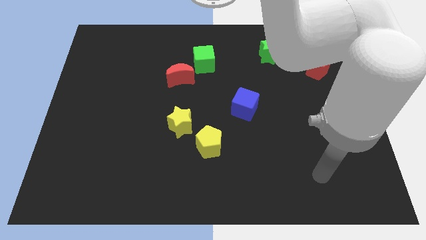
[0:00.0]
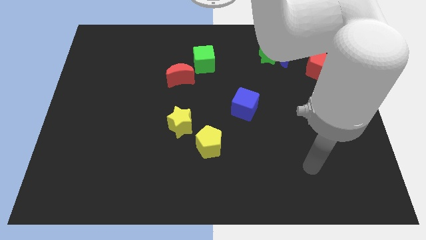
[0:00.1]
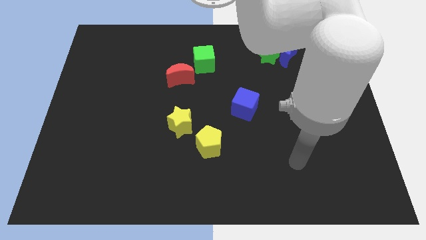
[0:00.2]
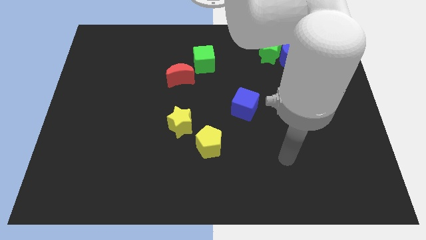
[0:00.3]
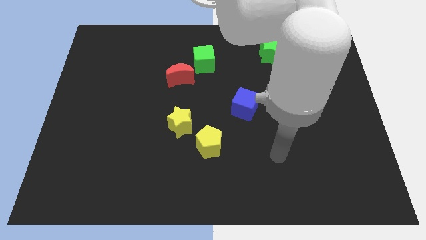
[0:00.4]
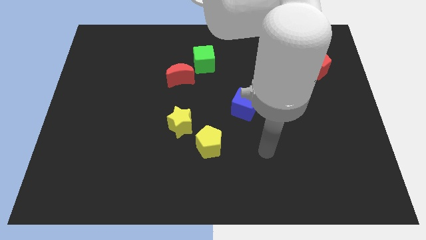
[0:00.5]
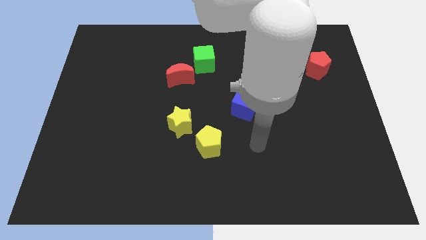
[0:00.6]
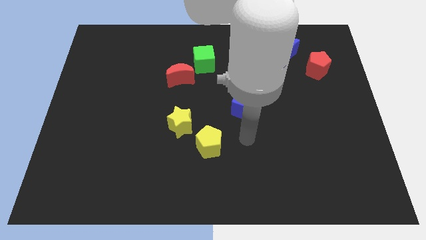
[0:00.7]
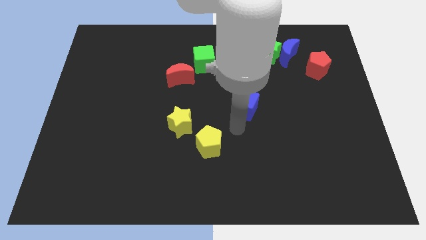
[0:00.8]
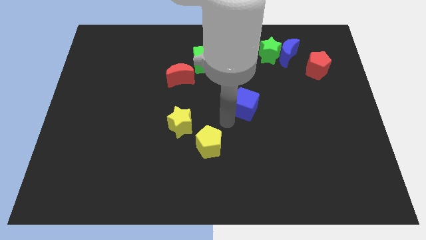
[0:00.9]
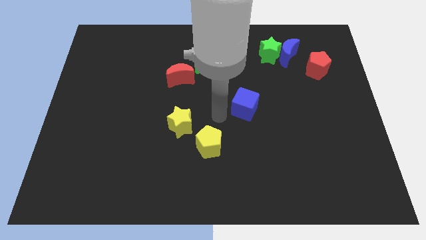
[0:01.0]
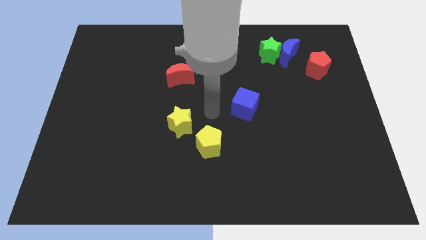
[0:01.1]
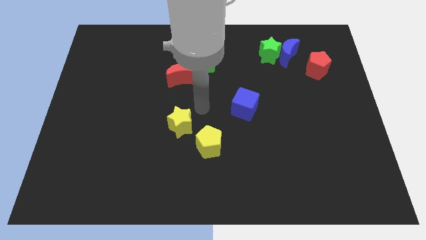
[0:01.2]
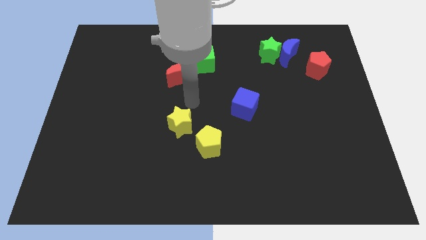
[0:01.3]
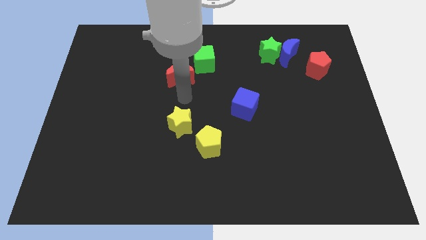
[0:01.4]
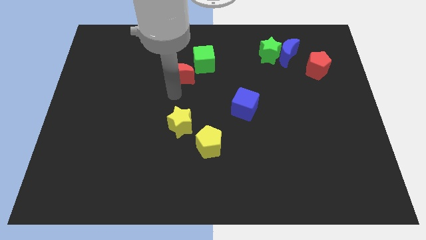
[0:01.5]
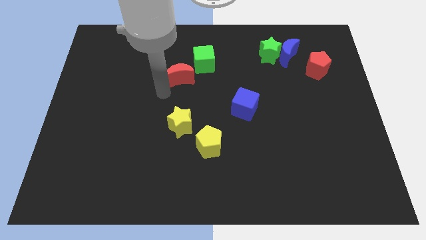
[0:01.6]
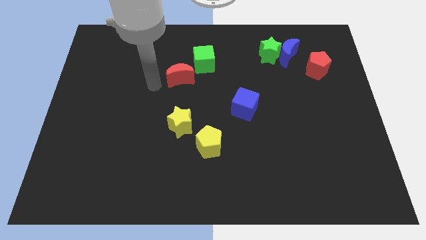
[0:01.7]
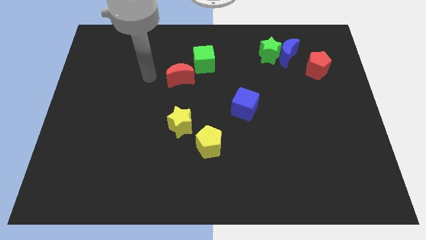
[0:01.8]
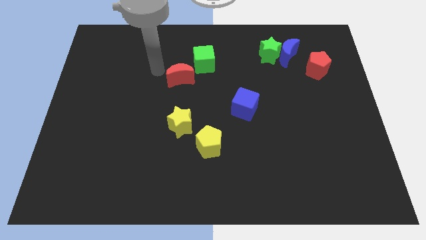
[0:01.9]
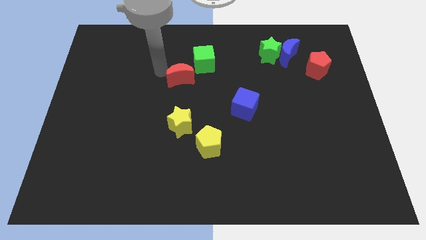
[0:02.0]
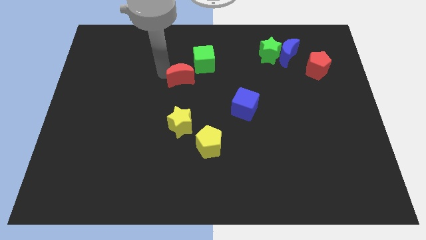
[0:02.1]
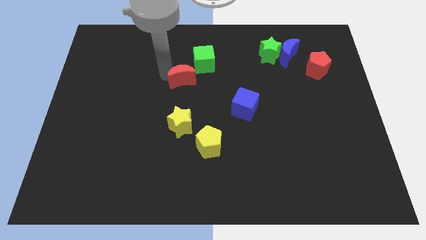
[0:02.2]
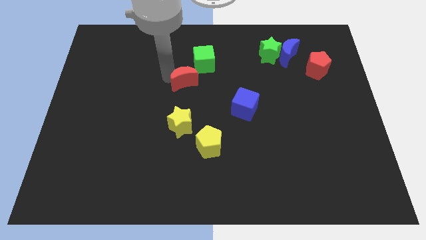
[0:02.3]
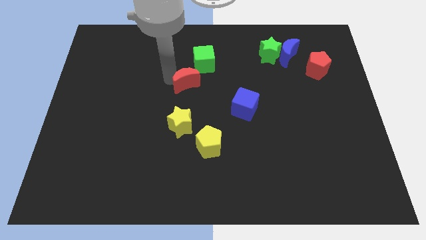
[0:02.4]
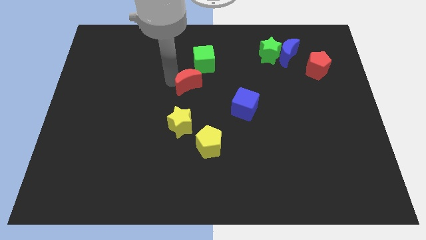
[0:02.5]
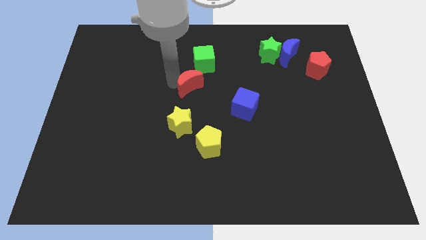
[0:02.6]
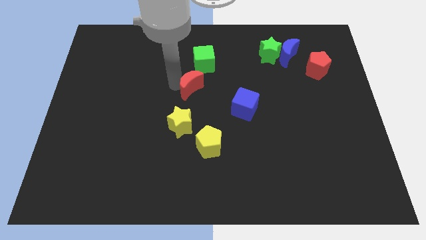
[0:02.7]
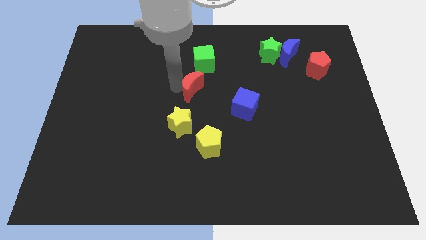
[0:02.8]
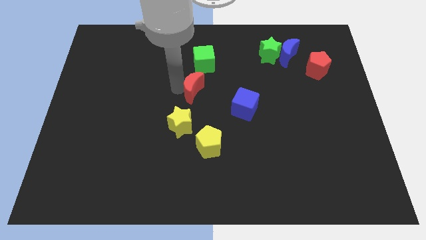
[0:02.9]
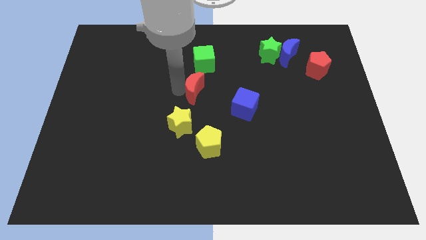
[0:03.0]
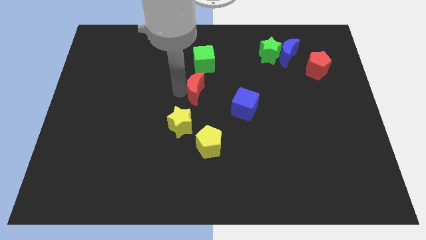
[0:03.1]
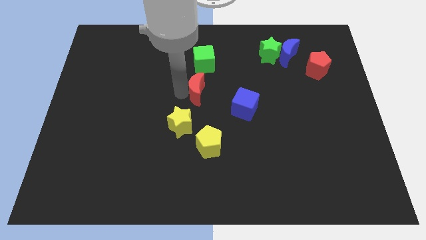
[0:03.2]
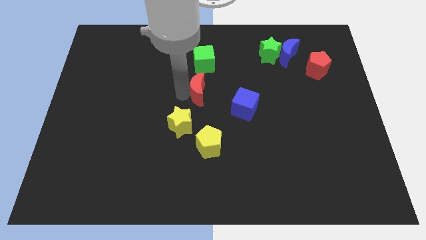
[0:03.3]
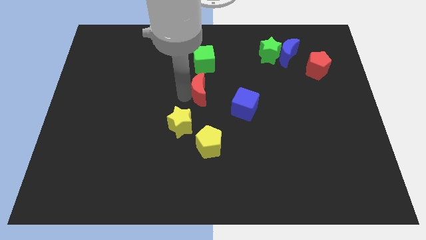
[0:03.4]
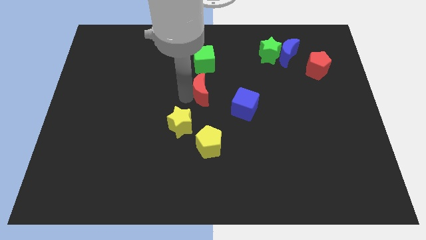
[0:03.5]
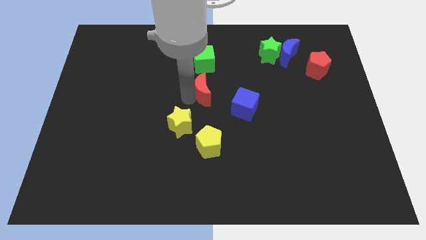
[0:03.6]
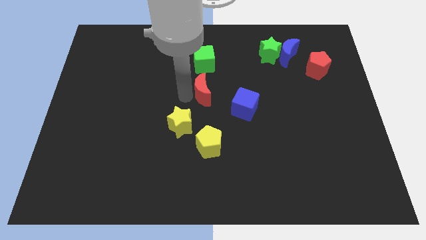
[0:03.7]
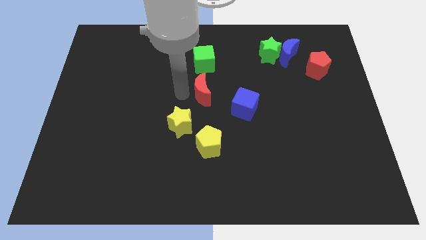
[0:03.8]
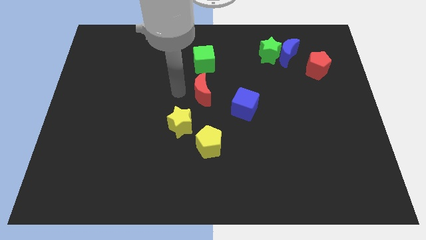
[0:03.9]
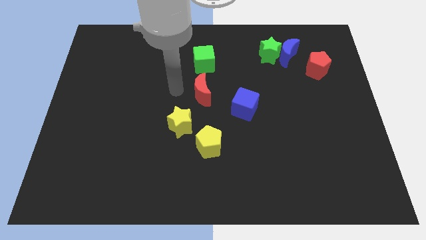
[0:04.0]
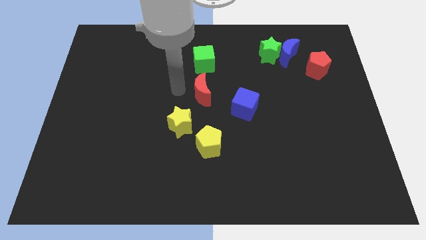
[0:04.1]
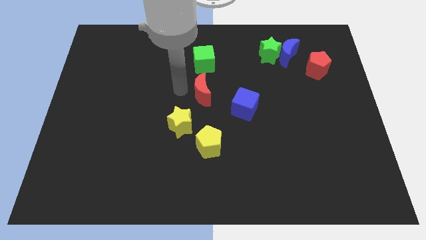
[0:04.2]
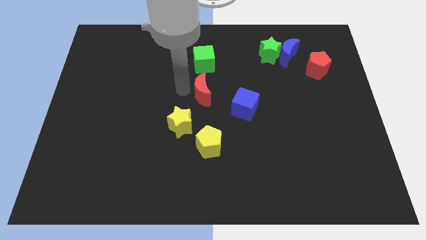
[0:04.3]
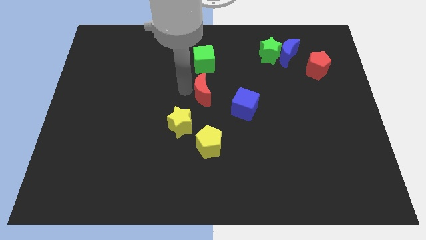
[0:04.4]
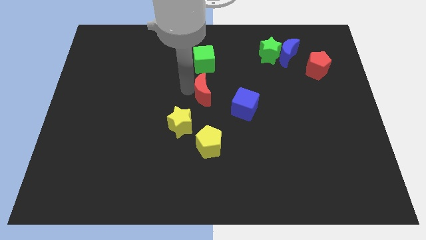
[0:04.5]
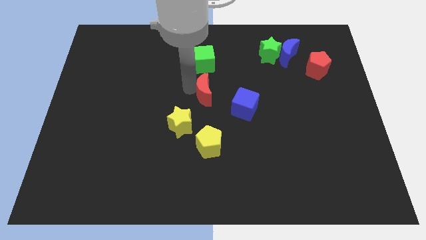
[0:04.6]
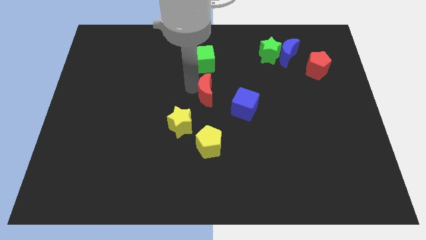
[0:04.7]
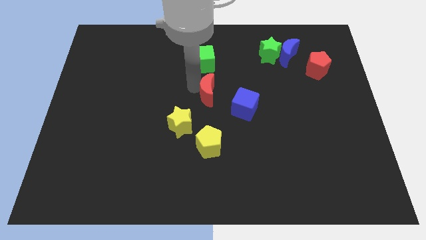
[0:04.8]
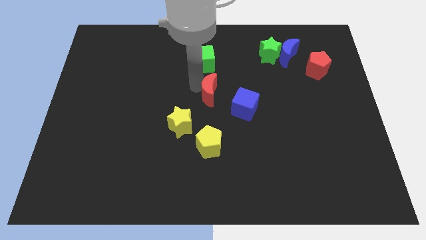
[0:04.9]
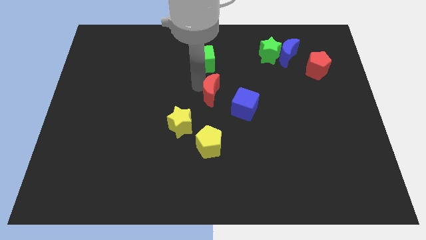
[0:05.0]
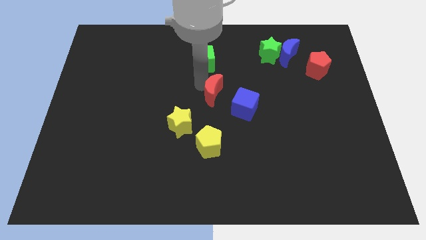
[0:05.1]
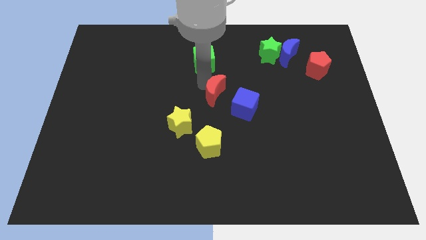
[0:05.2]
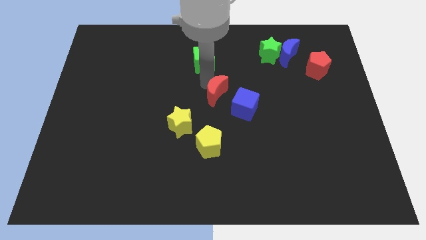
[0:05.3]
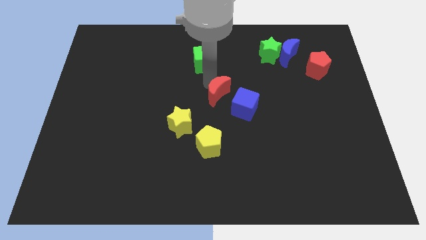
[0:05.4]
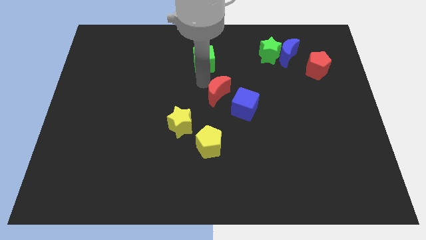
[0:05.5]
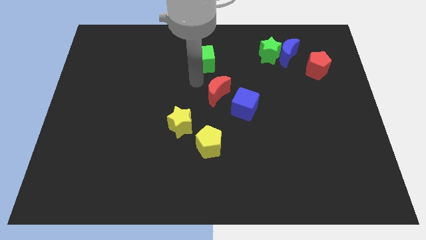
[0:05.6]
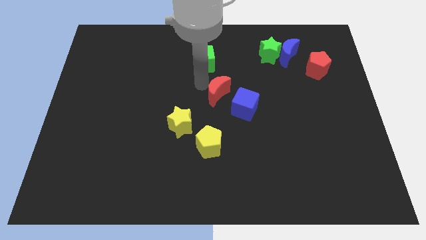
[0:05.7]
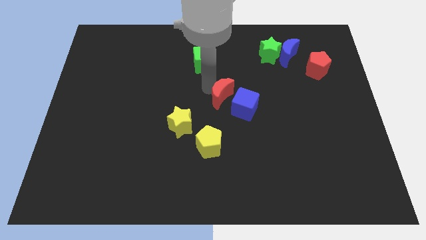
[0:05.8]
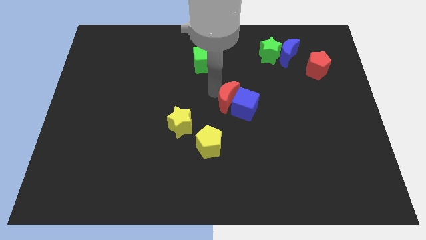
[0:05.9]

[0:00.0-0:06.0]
slide the red moon next to the blue cube

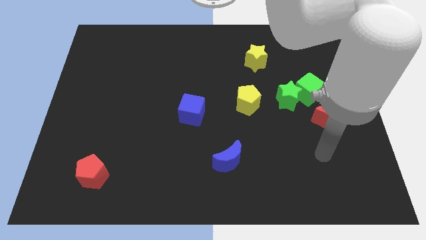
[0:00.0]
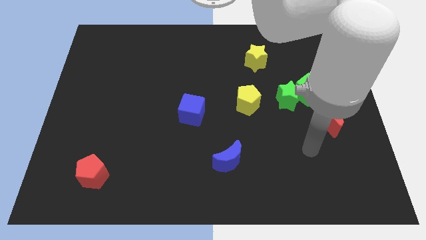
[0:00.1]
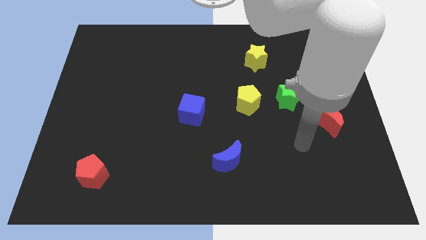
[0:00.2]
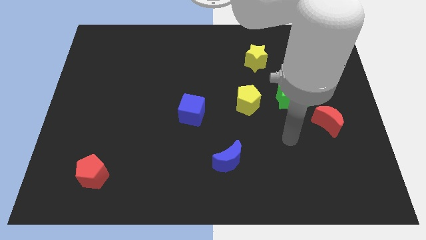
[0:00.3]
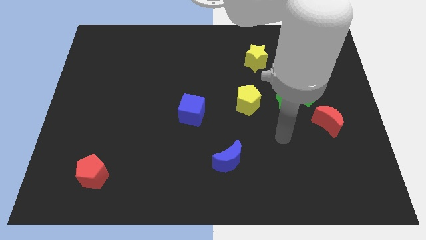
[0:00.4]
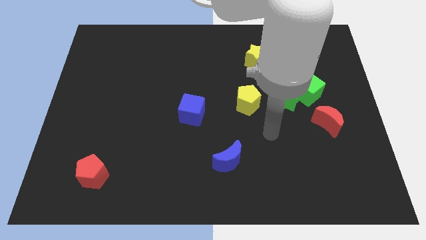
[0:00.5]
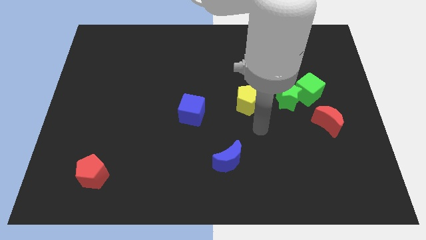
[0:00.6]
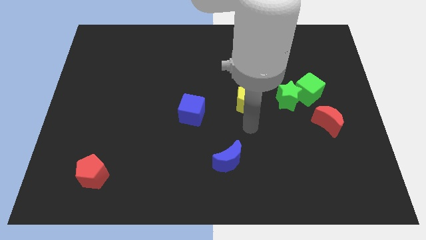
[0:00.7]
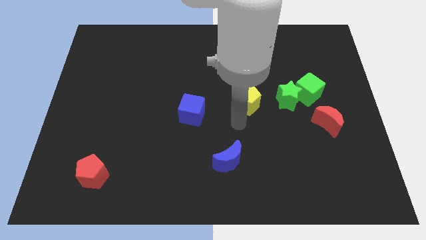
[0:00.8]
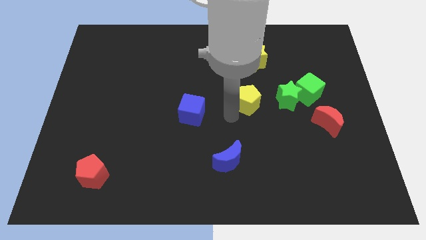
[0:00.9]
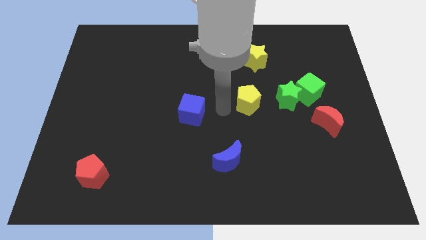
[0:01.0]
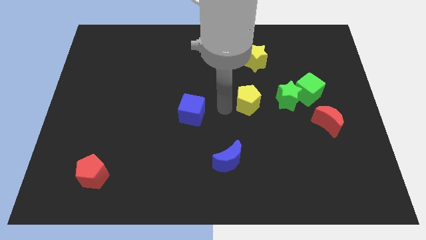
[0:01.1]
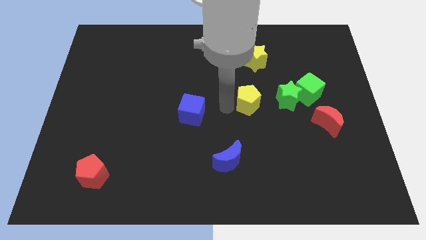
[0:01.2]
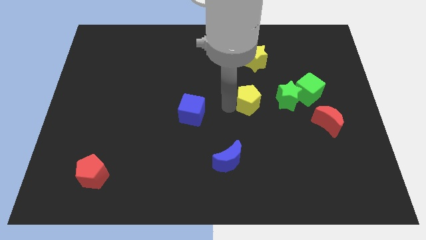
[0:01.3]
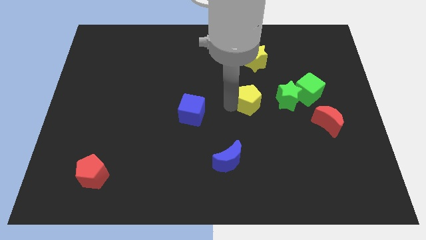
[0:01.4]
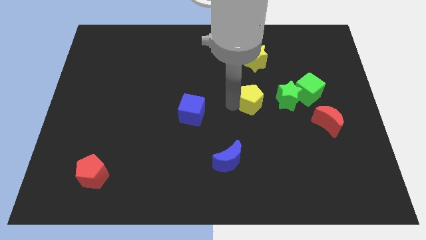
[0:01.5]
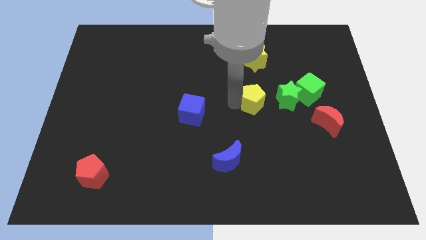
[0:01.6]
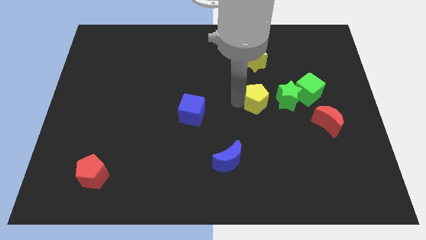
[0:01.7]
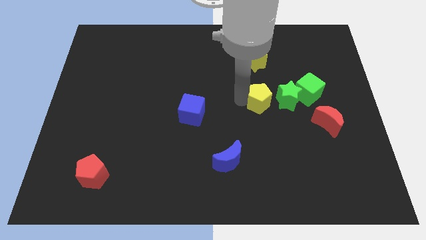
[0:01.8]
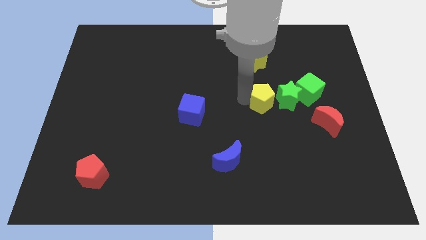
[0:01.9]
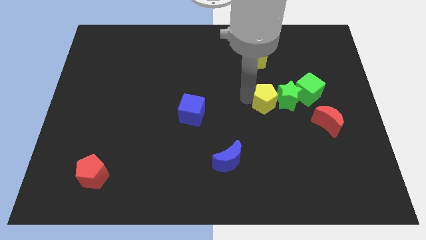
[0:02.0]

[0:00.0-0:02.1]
move the yellow pentagon close to the green star
